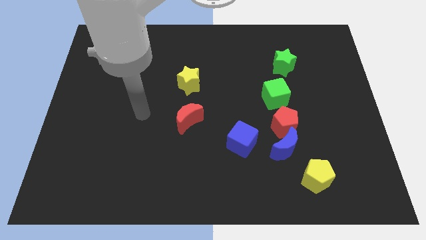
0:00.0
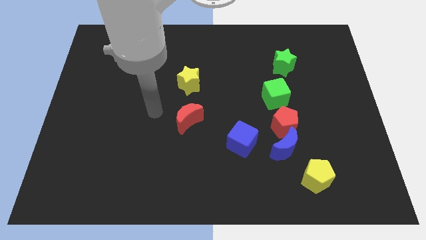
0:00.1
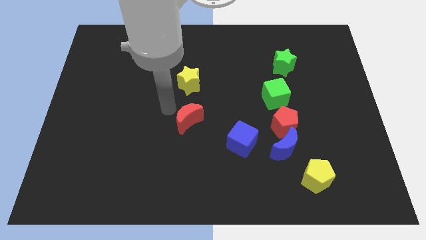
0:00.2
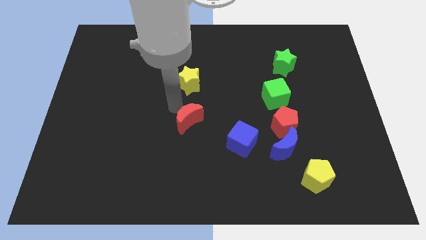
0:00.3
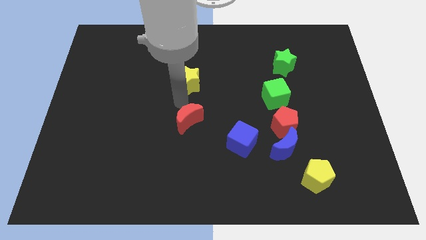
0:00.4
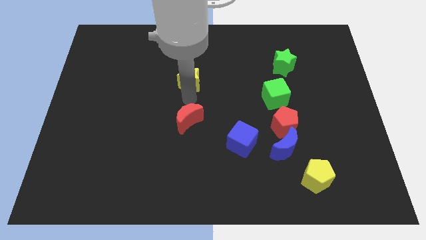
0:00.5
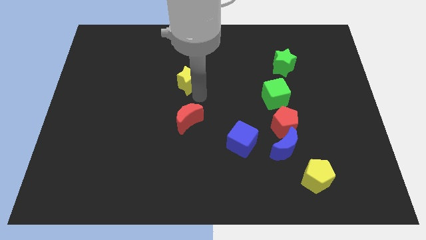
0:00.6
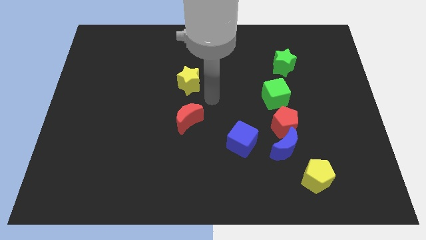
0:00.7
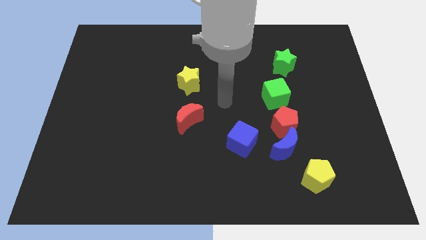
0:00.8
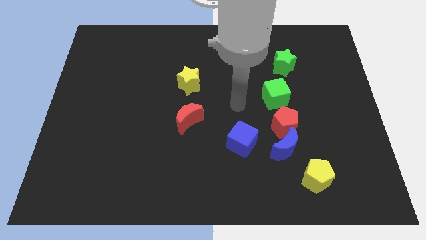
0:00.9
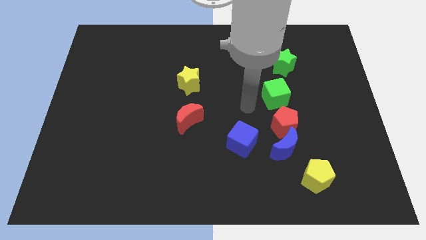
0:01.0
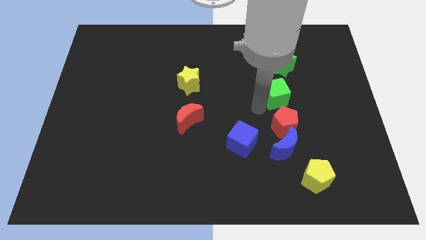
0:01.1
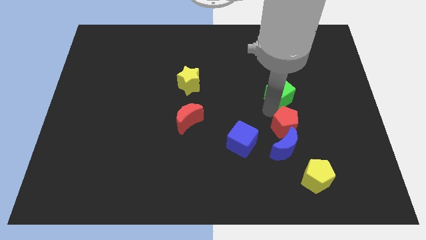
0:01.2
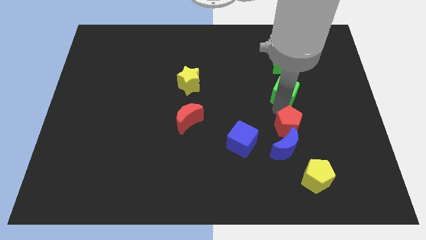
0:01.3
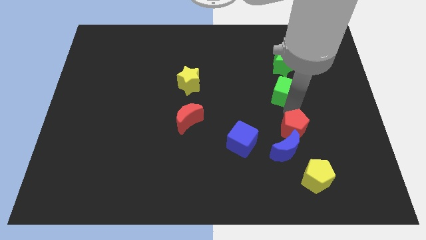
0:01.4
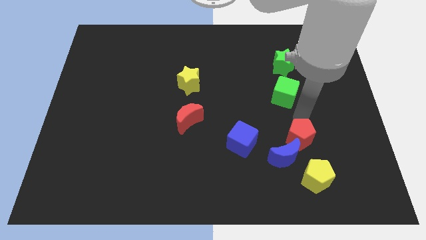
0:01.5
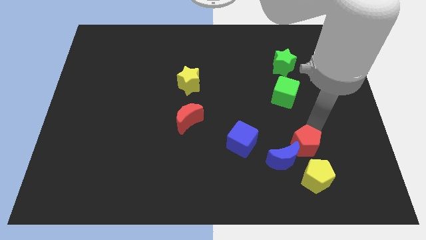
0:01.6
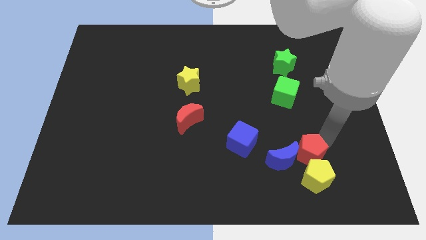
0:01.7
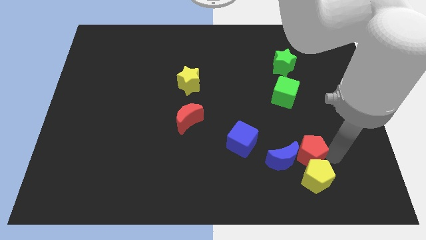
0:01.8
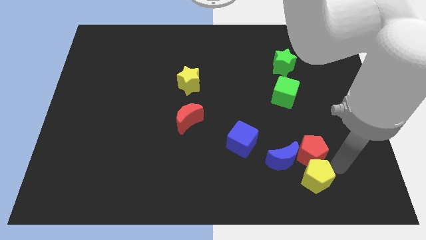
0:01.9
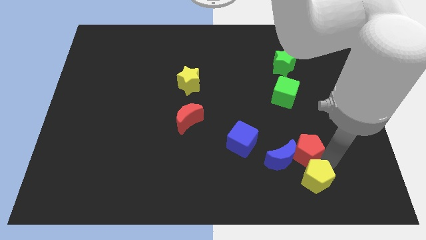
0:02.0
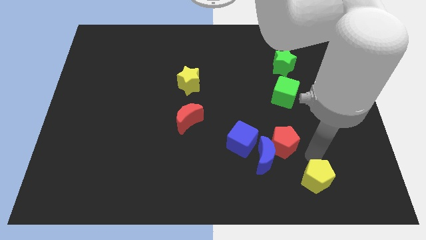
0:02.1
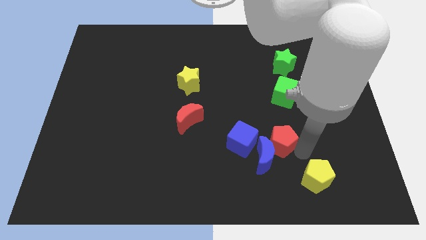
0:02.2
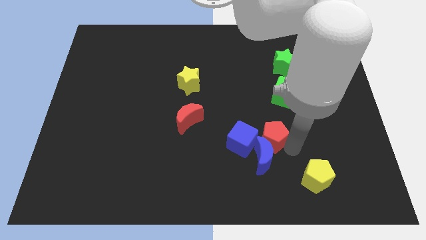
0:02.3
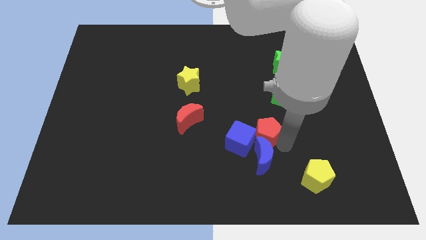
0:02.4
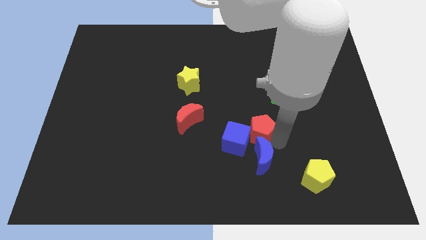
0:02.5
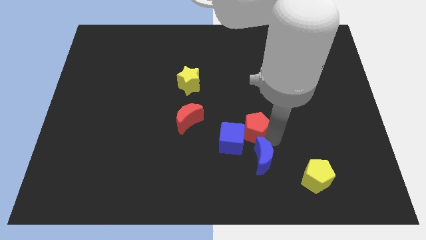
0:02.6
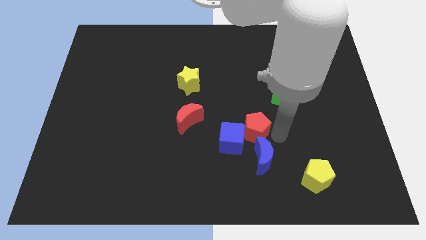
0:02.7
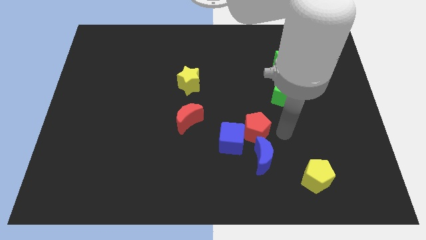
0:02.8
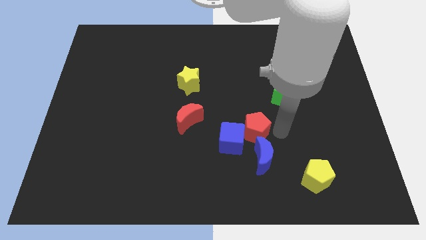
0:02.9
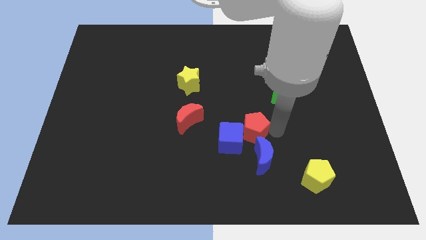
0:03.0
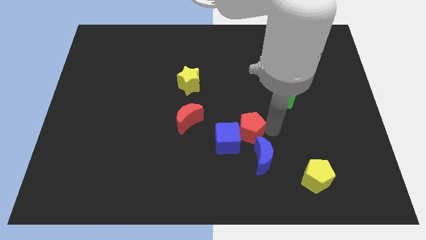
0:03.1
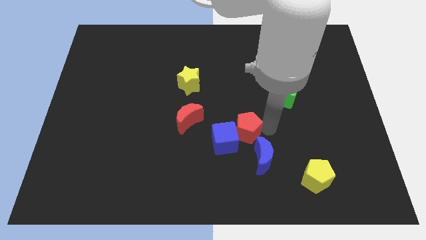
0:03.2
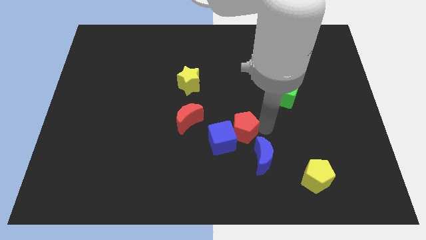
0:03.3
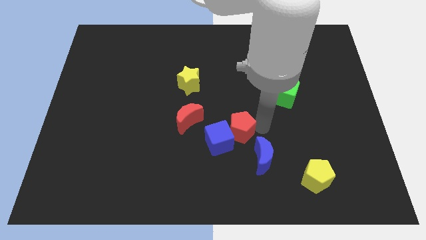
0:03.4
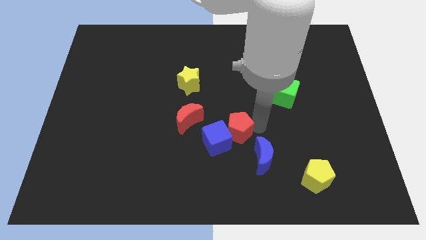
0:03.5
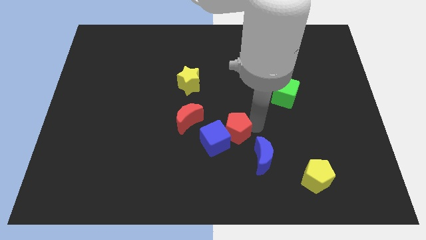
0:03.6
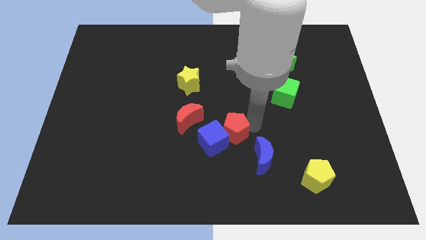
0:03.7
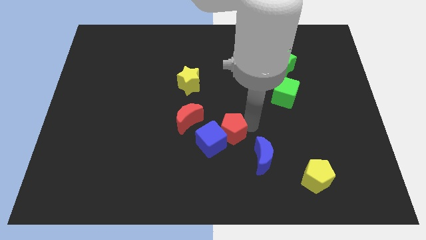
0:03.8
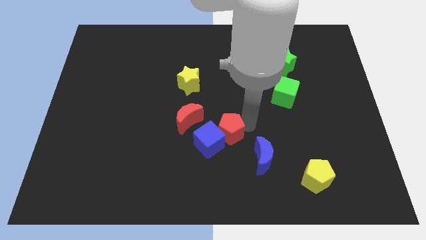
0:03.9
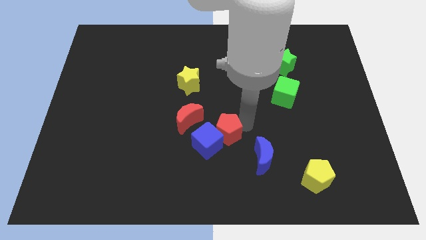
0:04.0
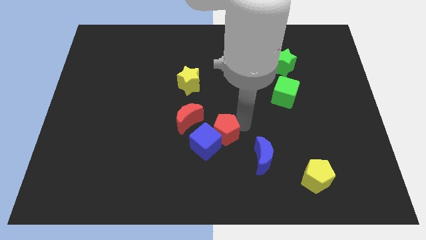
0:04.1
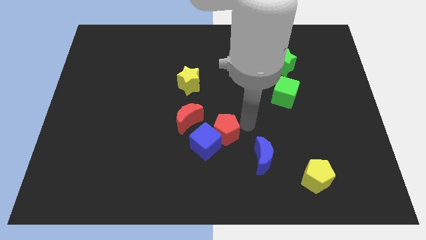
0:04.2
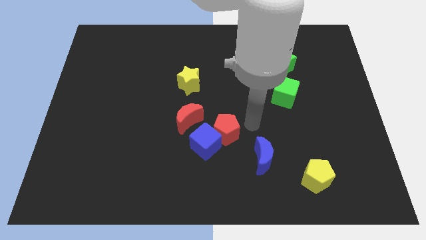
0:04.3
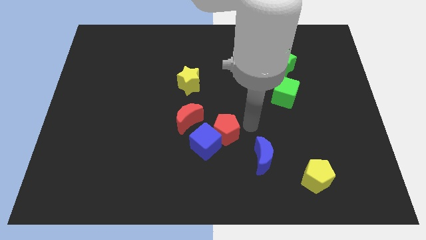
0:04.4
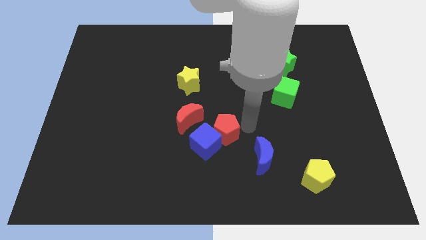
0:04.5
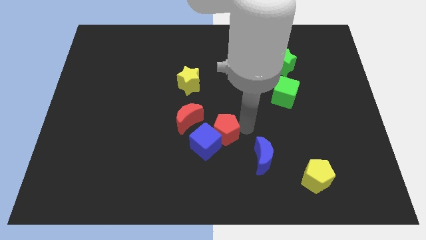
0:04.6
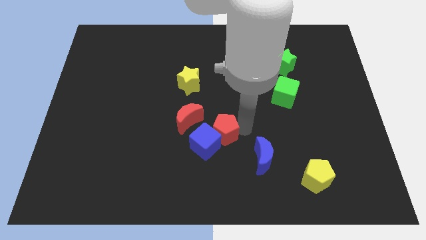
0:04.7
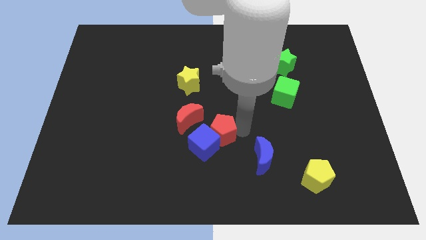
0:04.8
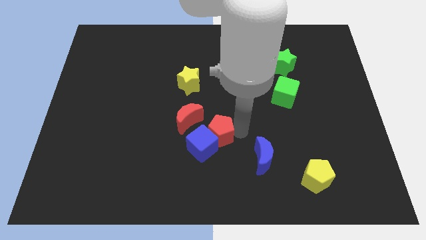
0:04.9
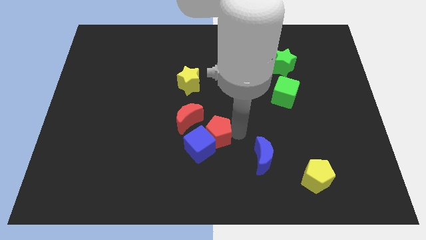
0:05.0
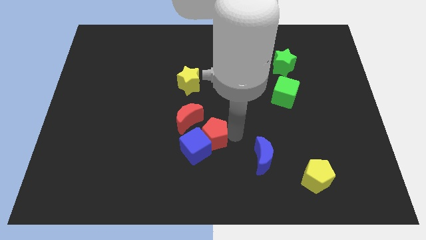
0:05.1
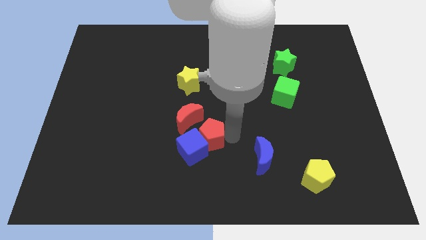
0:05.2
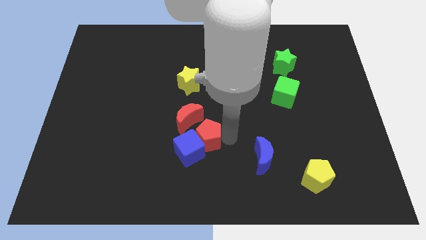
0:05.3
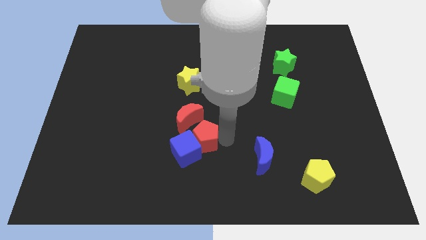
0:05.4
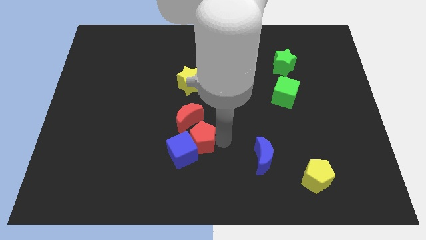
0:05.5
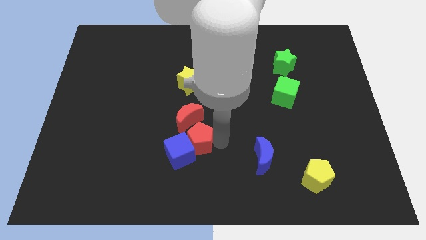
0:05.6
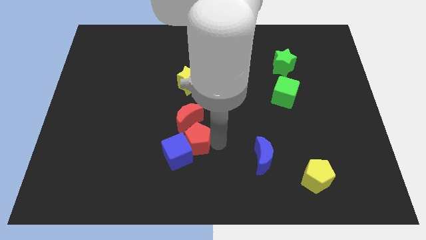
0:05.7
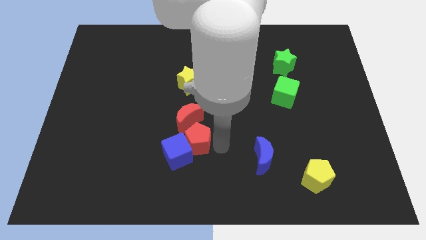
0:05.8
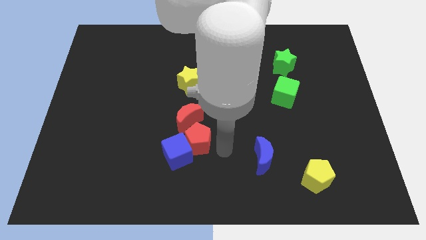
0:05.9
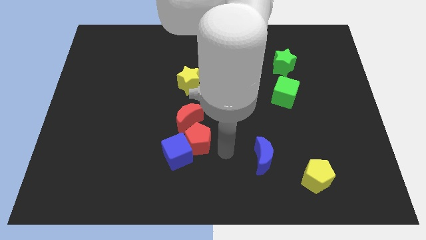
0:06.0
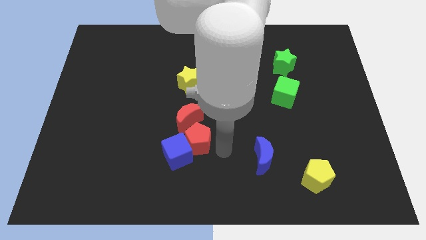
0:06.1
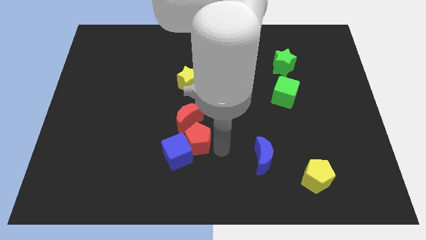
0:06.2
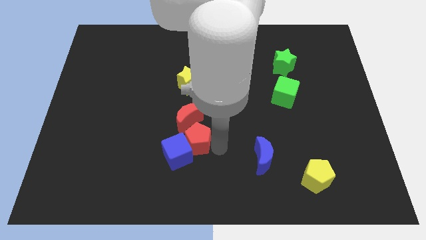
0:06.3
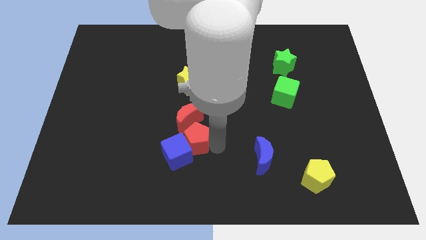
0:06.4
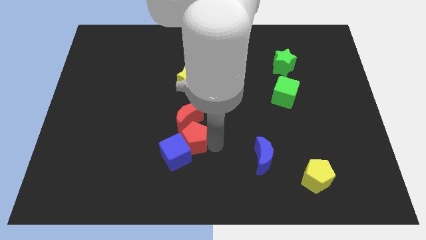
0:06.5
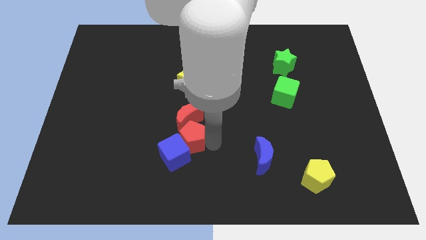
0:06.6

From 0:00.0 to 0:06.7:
slide the red pentagon left

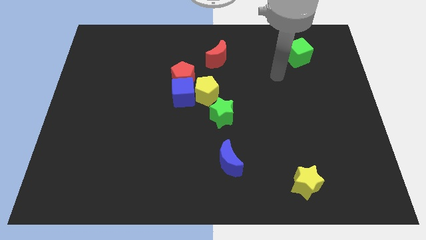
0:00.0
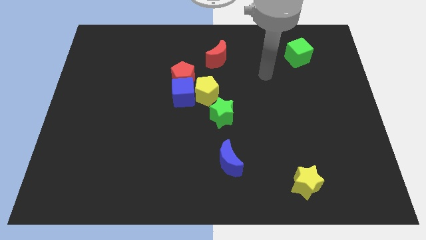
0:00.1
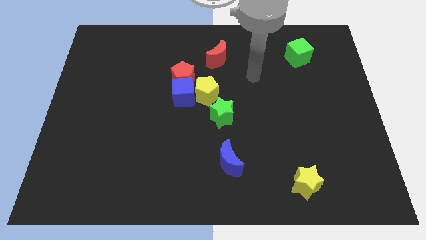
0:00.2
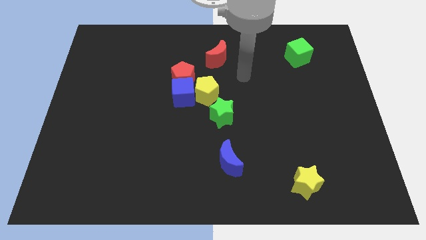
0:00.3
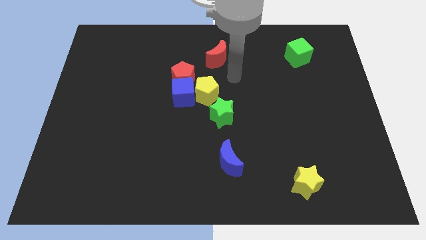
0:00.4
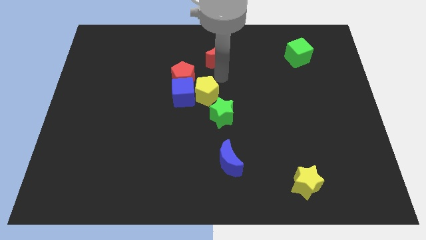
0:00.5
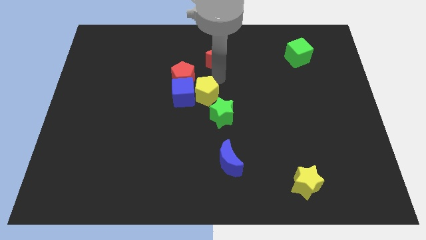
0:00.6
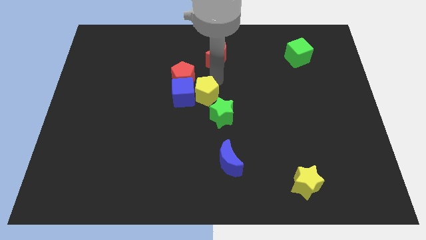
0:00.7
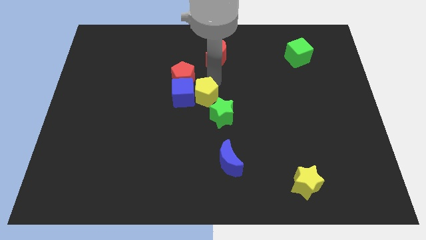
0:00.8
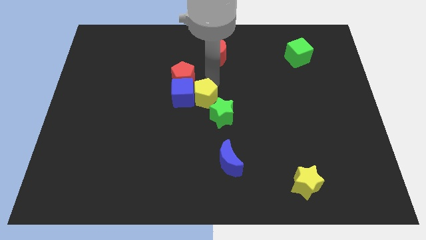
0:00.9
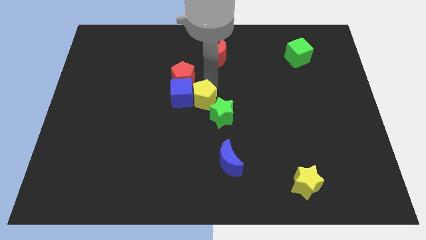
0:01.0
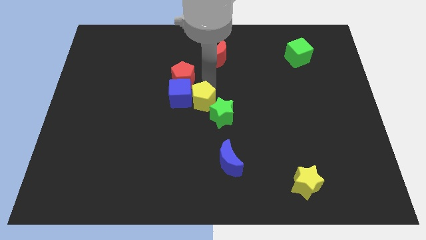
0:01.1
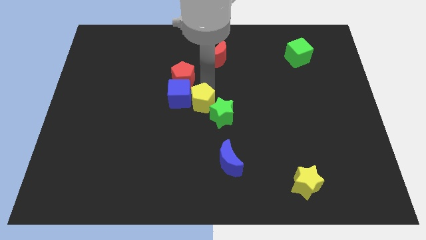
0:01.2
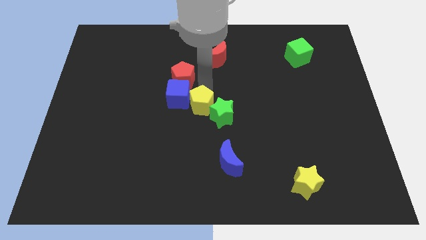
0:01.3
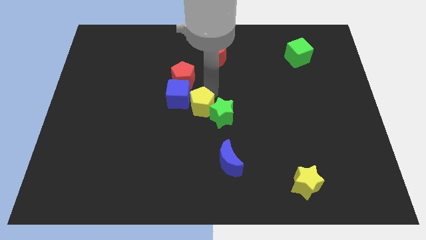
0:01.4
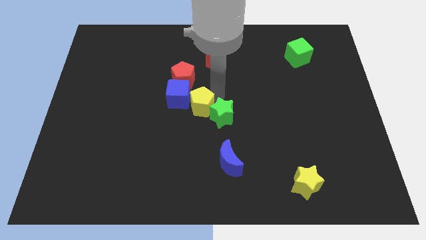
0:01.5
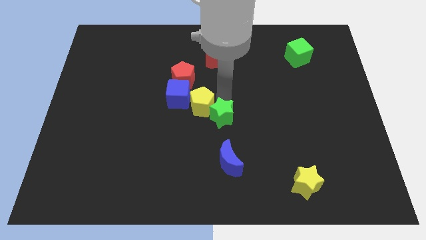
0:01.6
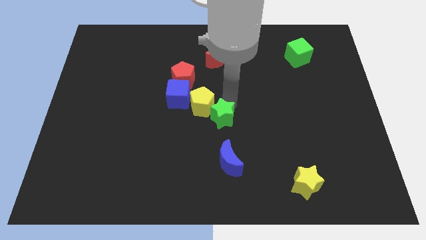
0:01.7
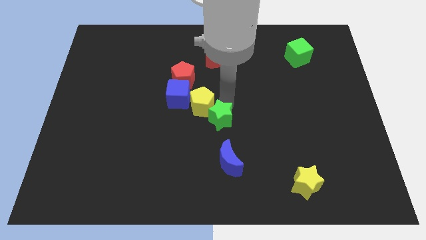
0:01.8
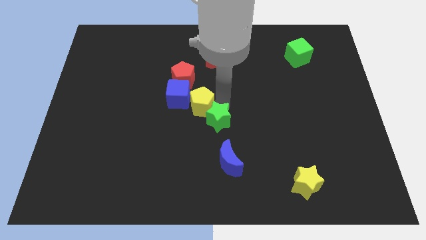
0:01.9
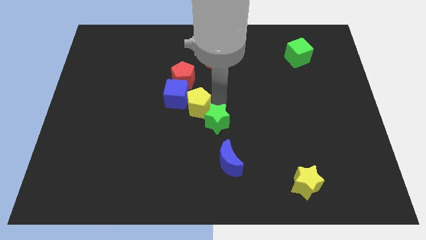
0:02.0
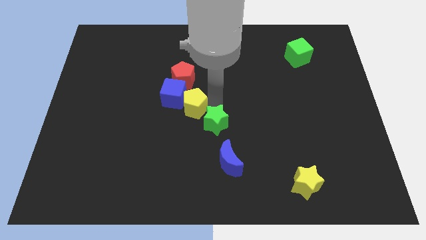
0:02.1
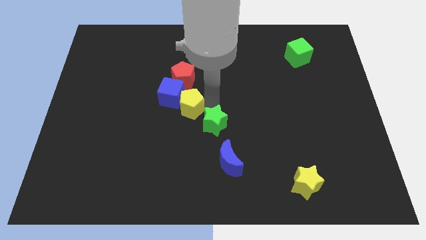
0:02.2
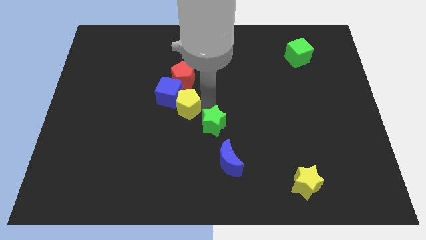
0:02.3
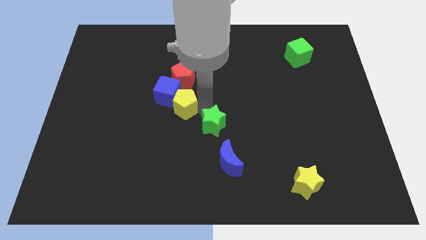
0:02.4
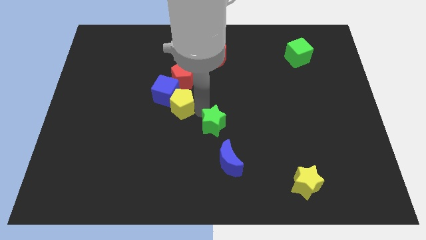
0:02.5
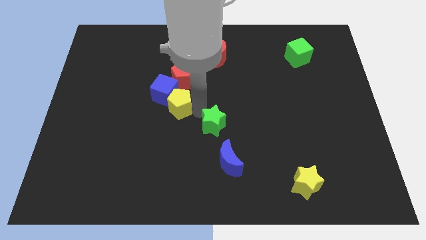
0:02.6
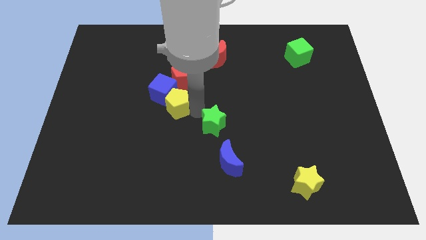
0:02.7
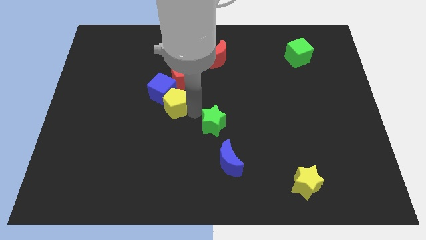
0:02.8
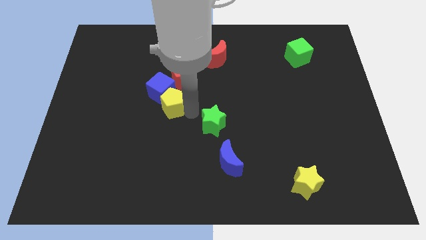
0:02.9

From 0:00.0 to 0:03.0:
move the yellow pentagon to the left a bit
